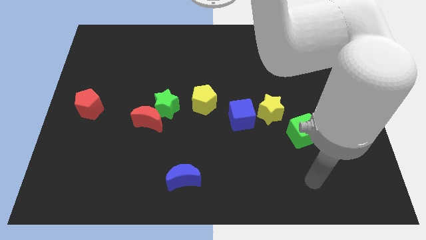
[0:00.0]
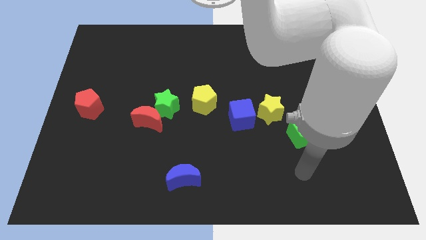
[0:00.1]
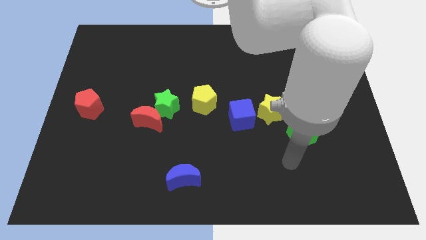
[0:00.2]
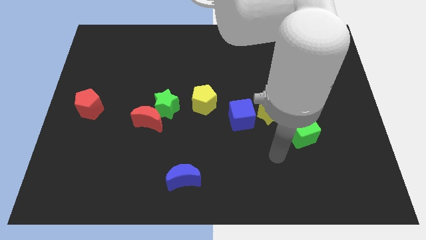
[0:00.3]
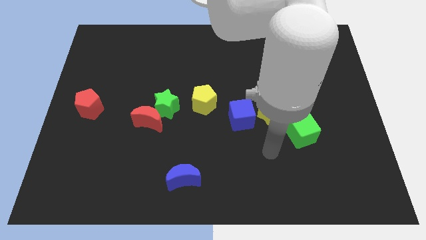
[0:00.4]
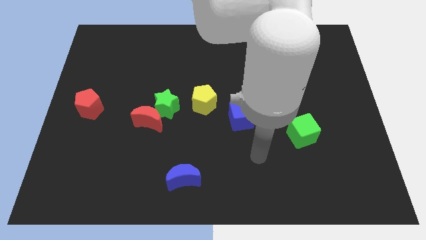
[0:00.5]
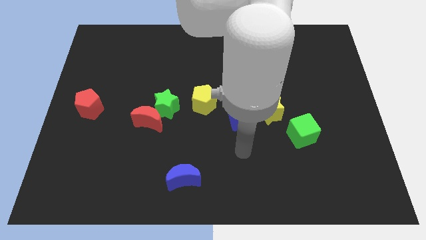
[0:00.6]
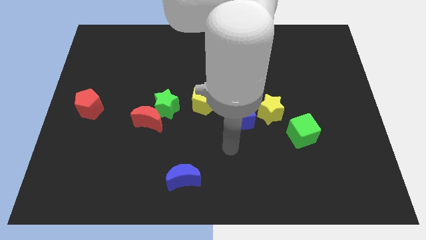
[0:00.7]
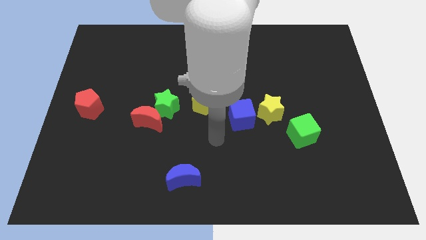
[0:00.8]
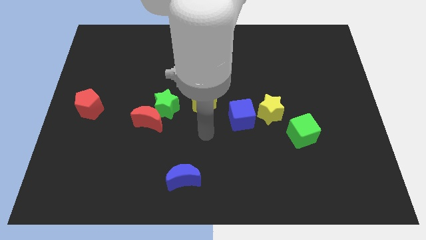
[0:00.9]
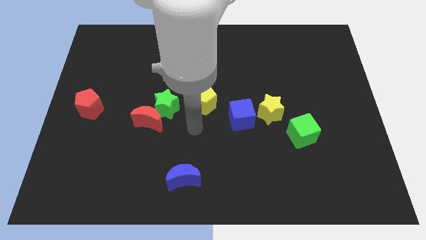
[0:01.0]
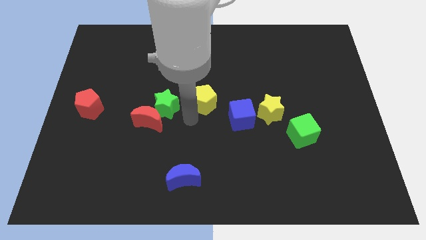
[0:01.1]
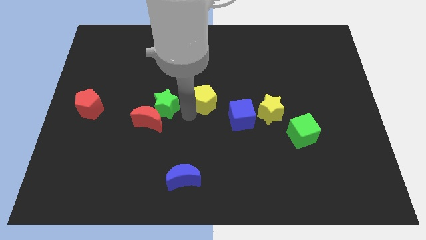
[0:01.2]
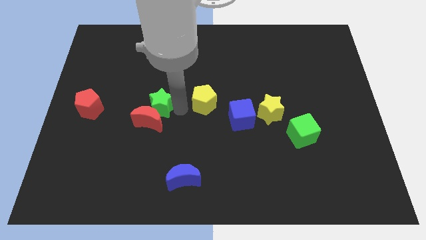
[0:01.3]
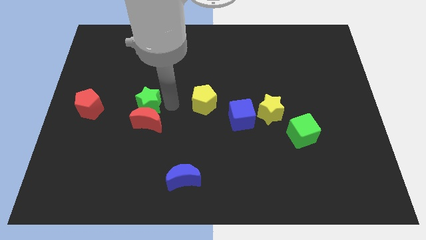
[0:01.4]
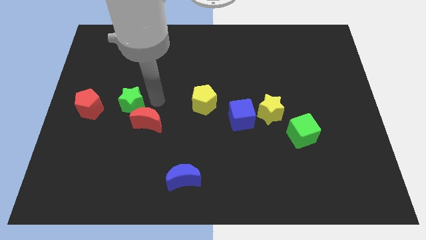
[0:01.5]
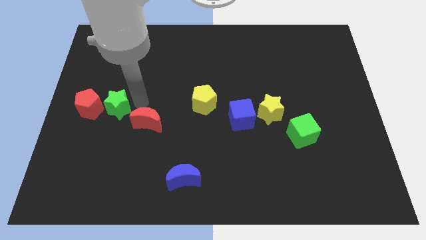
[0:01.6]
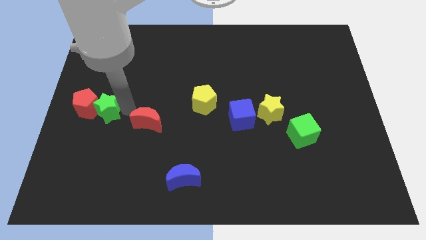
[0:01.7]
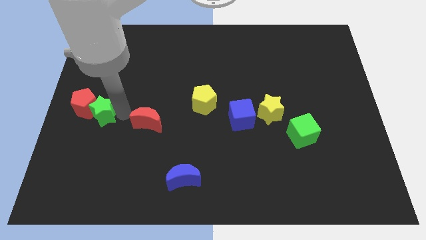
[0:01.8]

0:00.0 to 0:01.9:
move the red moon away from the green star

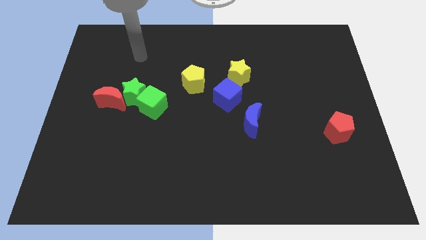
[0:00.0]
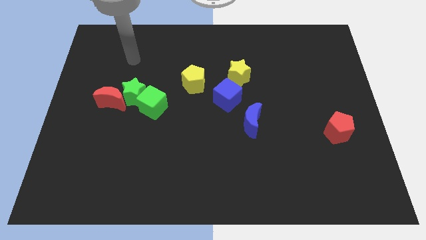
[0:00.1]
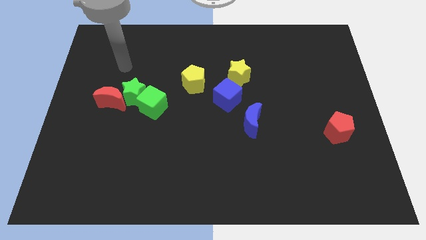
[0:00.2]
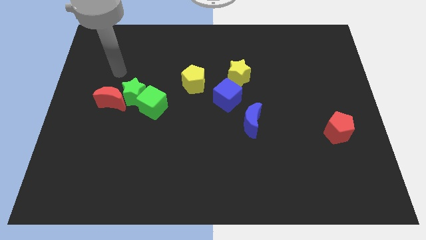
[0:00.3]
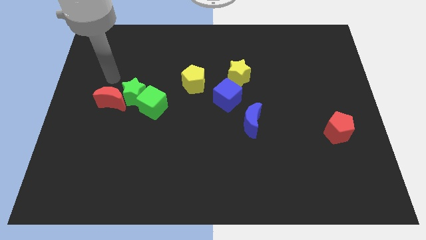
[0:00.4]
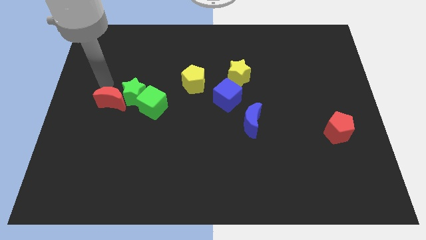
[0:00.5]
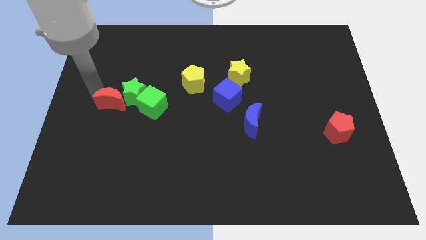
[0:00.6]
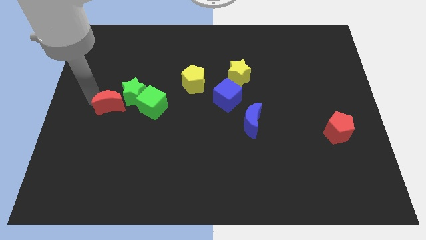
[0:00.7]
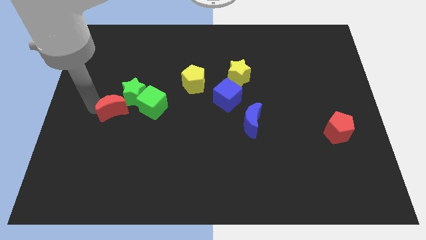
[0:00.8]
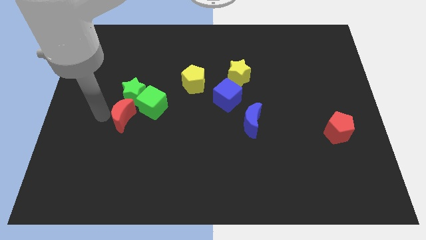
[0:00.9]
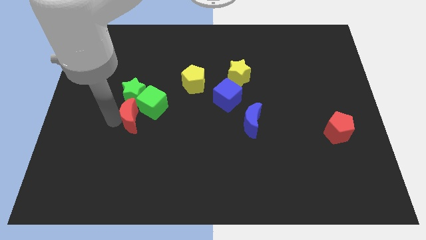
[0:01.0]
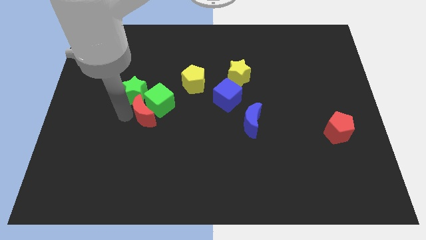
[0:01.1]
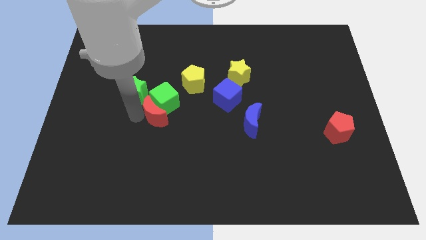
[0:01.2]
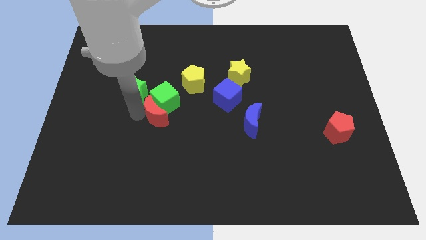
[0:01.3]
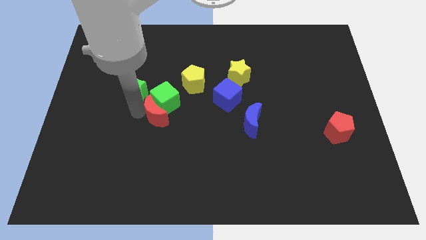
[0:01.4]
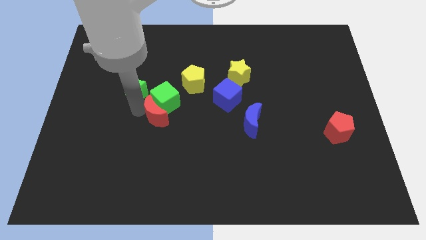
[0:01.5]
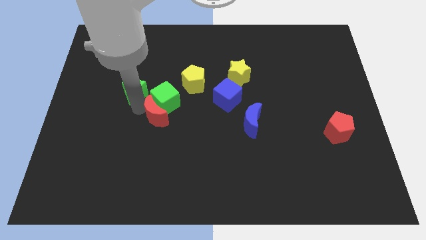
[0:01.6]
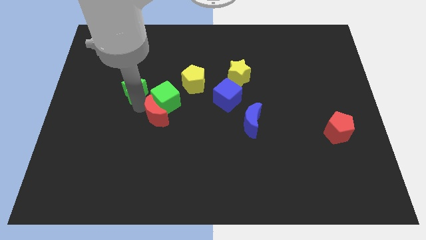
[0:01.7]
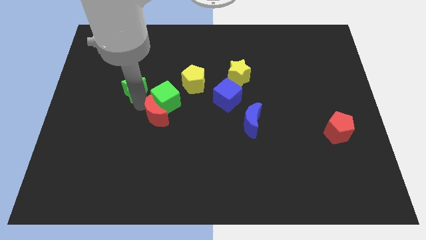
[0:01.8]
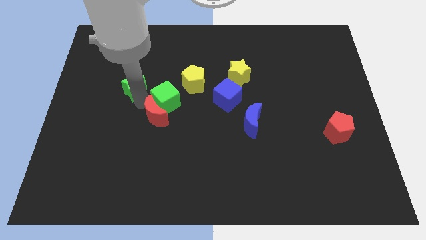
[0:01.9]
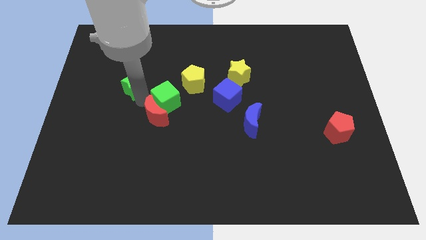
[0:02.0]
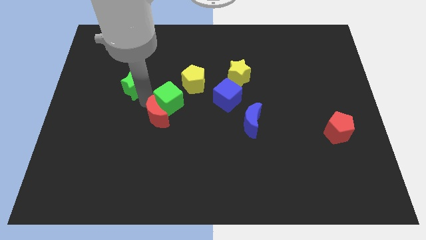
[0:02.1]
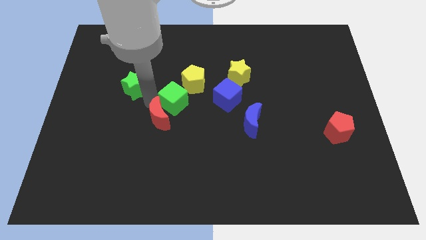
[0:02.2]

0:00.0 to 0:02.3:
pull the green star apart from the red moon and green cube

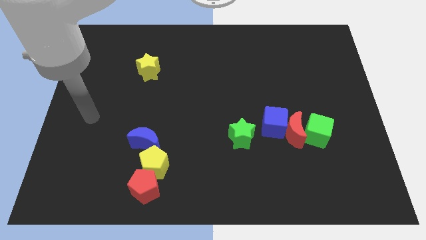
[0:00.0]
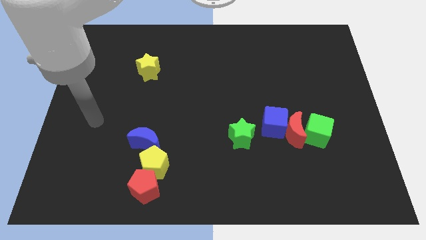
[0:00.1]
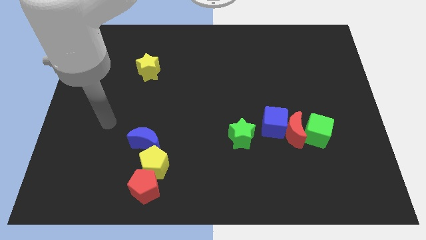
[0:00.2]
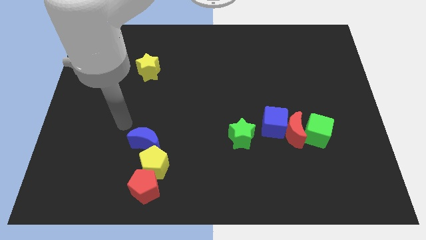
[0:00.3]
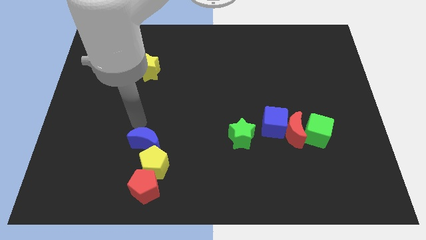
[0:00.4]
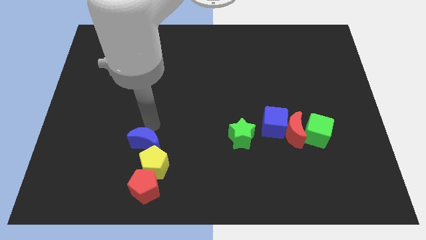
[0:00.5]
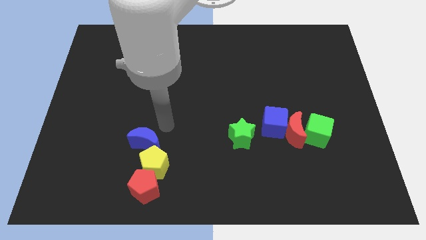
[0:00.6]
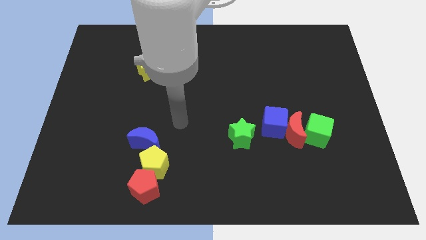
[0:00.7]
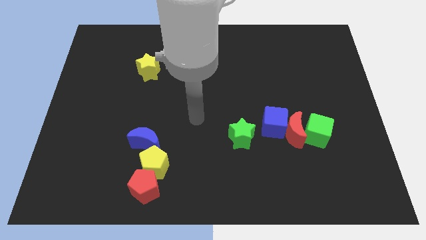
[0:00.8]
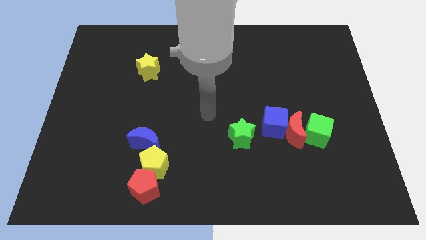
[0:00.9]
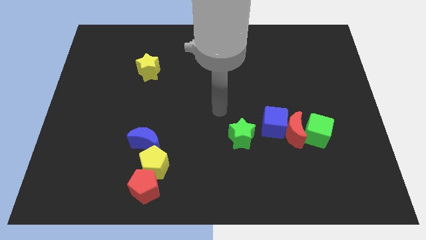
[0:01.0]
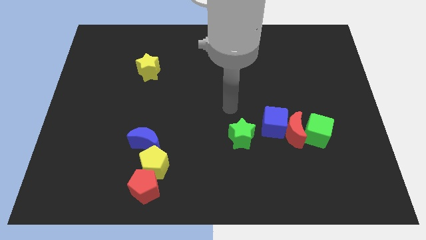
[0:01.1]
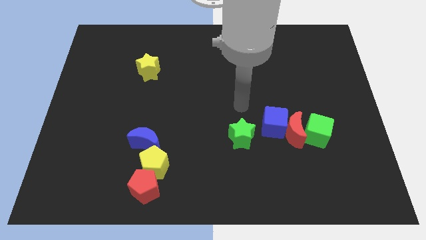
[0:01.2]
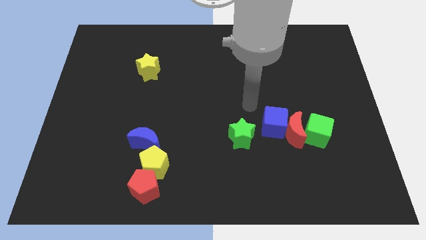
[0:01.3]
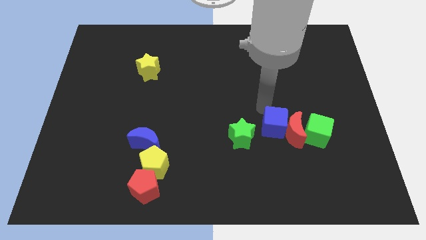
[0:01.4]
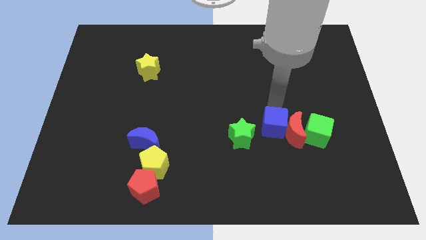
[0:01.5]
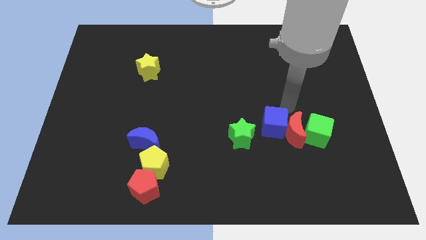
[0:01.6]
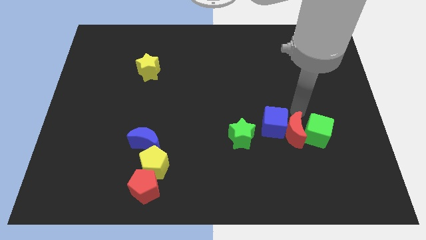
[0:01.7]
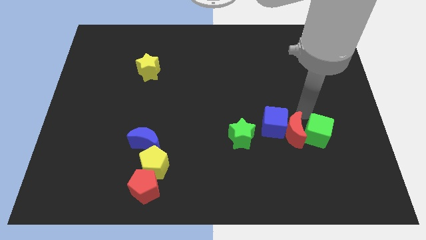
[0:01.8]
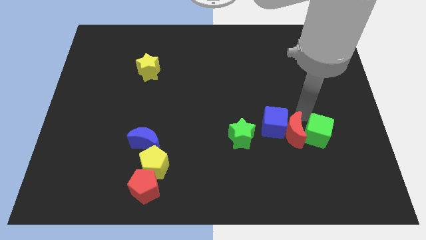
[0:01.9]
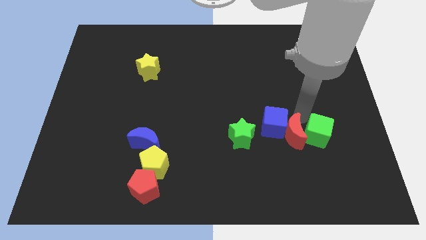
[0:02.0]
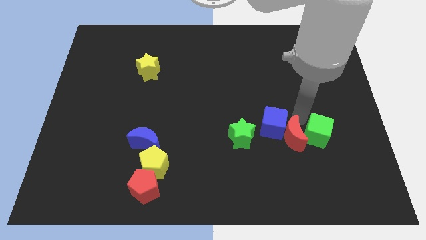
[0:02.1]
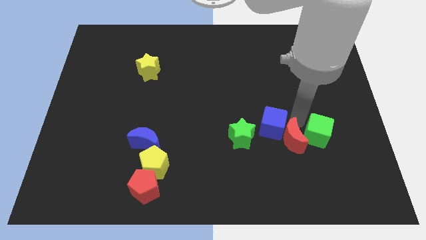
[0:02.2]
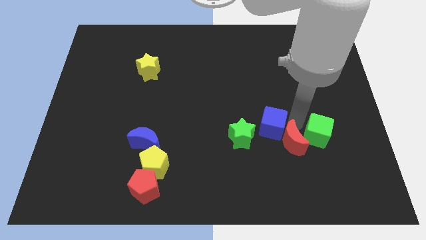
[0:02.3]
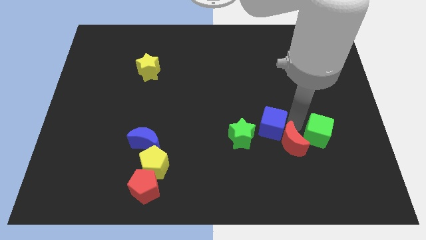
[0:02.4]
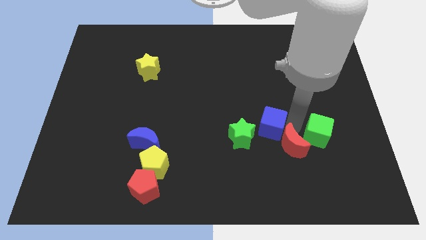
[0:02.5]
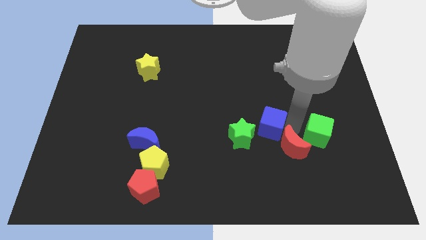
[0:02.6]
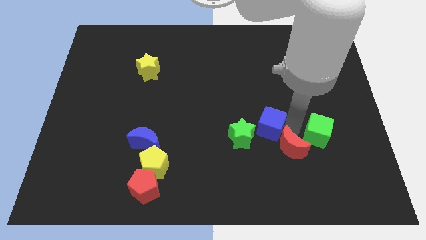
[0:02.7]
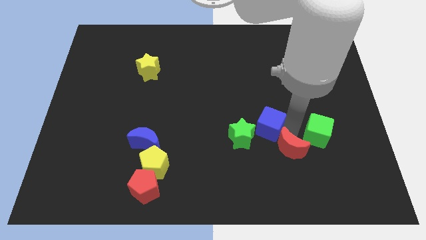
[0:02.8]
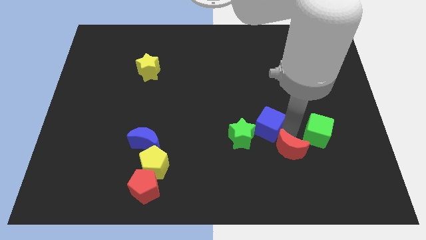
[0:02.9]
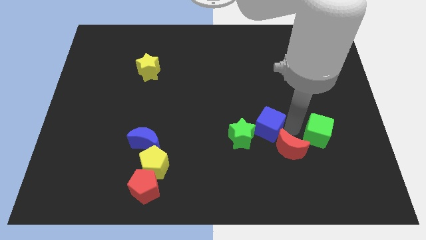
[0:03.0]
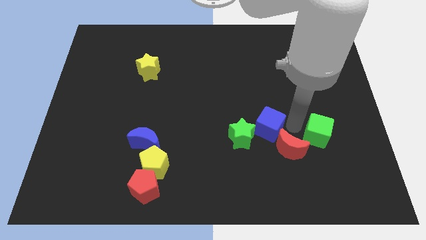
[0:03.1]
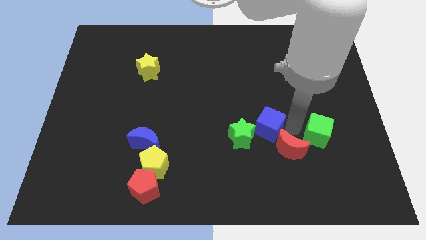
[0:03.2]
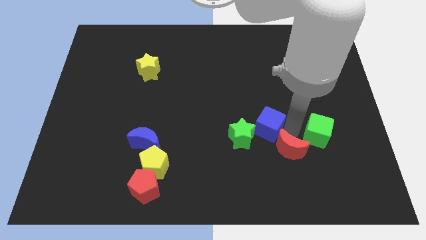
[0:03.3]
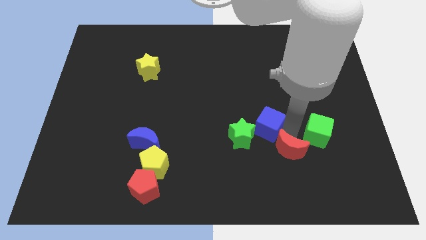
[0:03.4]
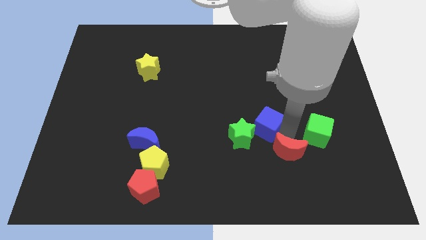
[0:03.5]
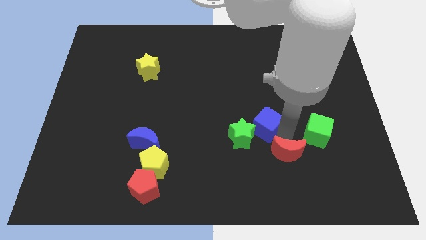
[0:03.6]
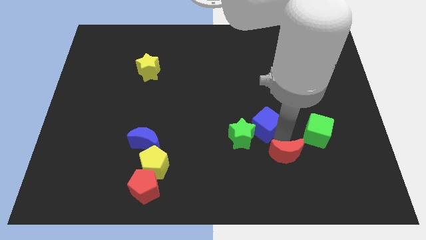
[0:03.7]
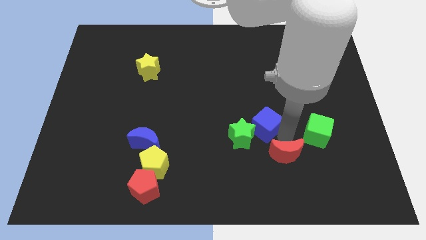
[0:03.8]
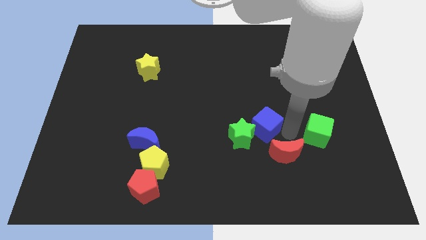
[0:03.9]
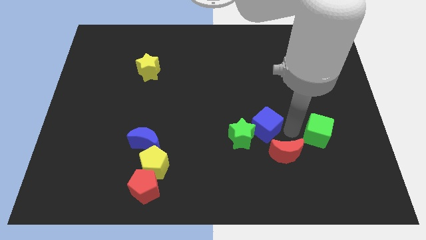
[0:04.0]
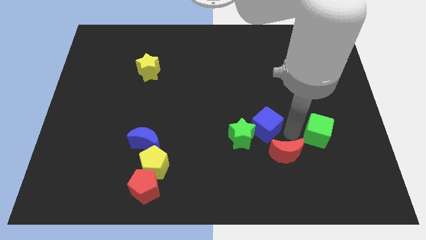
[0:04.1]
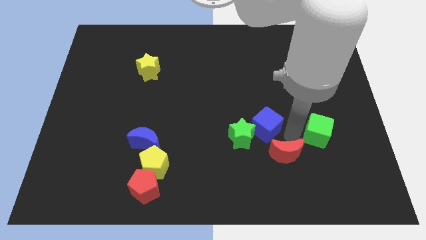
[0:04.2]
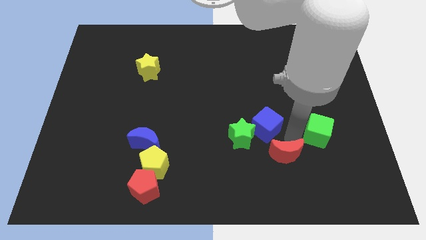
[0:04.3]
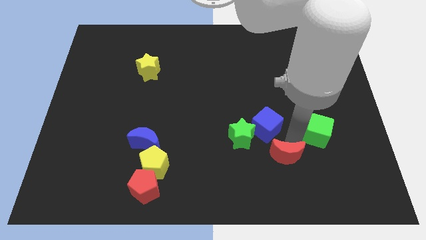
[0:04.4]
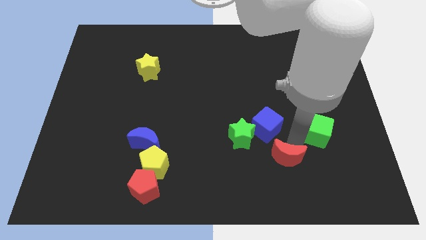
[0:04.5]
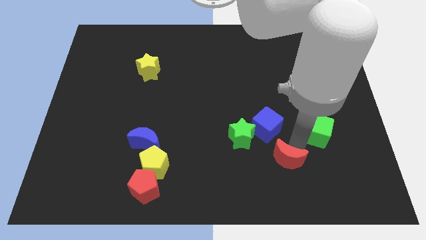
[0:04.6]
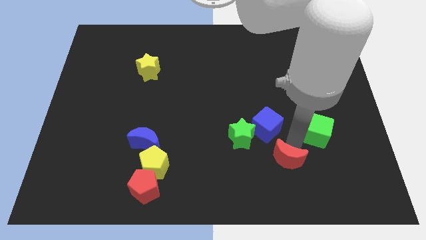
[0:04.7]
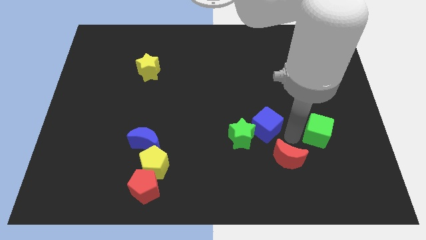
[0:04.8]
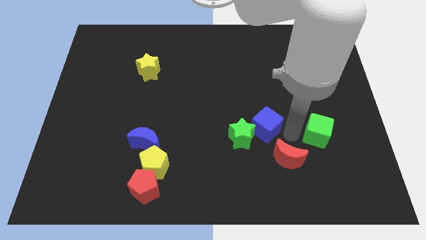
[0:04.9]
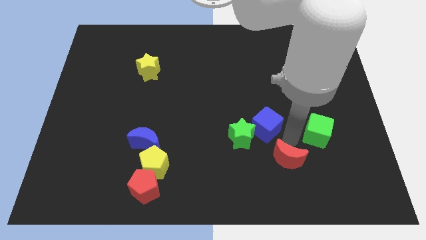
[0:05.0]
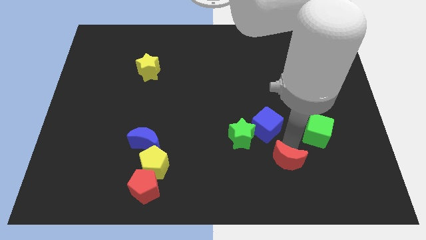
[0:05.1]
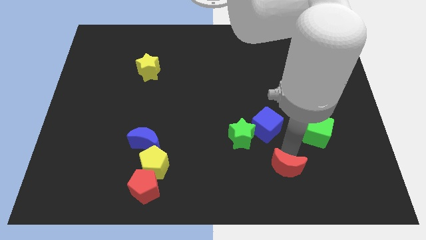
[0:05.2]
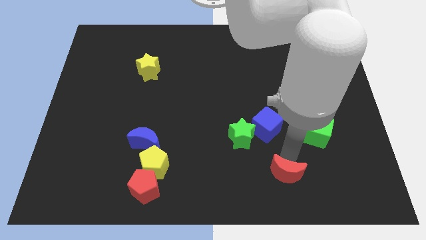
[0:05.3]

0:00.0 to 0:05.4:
move the red moon away from the blue cube and green cube
